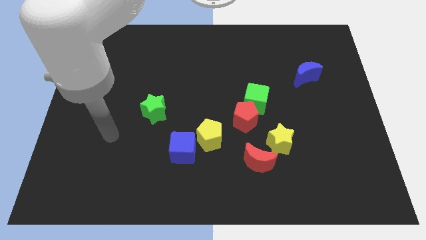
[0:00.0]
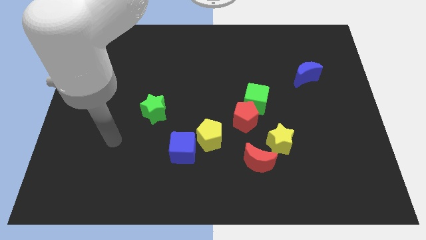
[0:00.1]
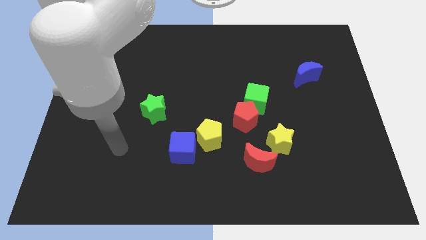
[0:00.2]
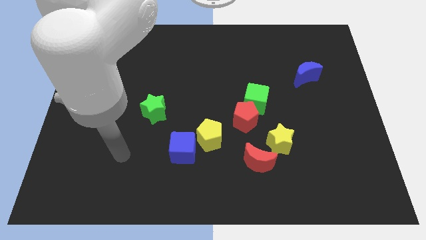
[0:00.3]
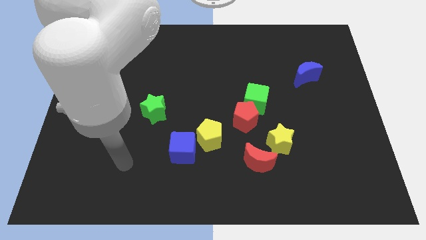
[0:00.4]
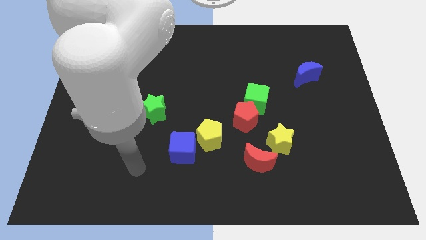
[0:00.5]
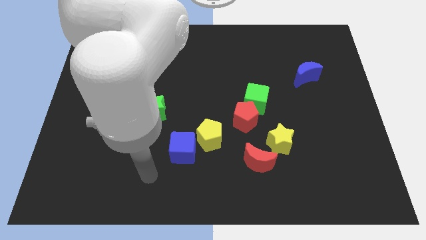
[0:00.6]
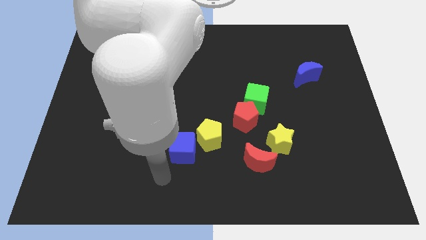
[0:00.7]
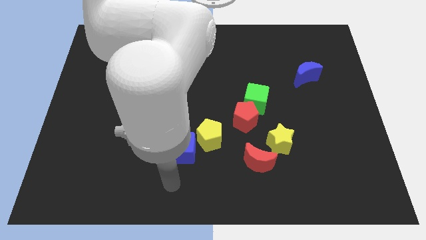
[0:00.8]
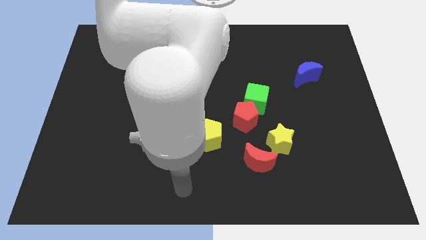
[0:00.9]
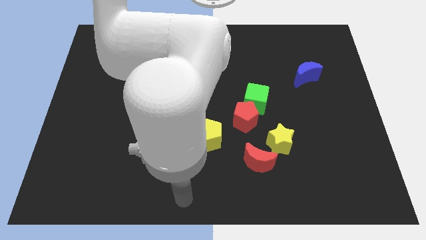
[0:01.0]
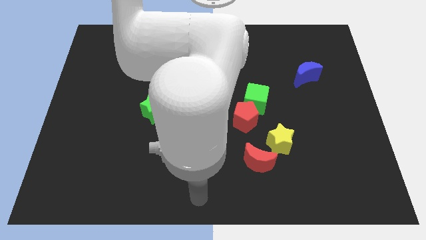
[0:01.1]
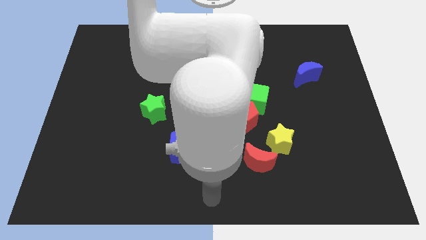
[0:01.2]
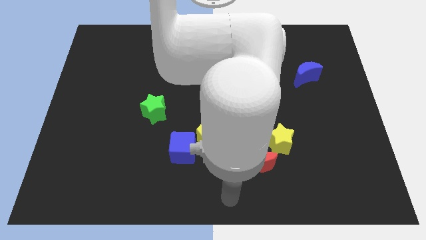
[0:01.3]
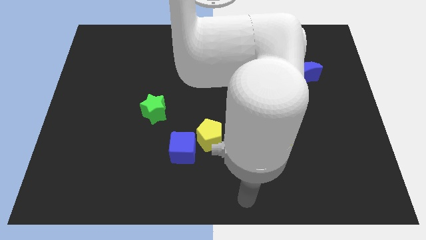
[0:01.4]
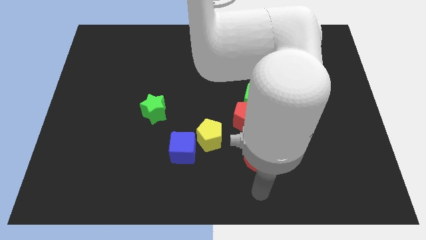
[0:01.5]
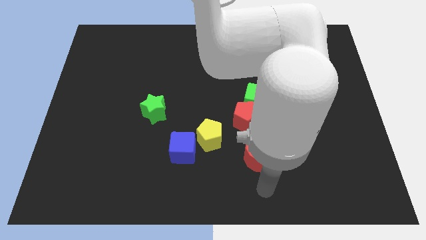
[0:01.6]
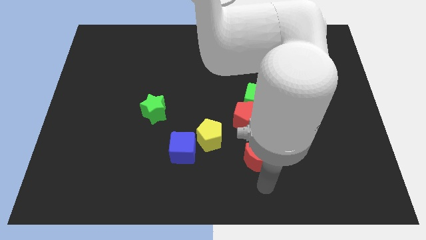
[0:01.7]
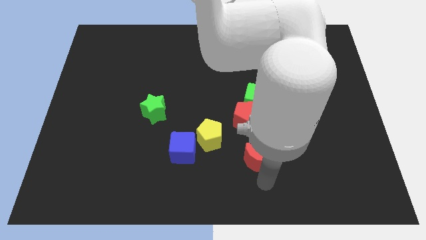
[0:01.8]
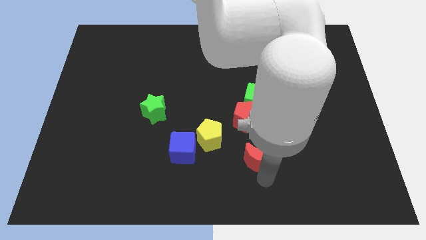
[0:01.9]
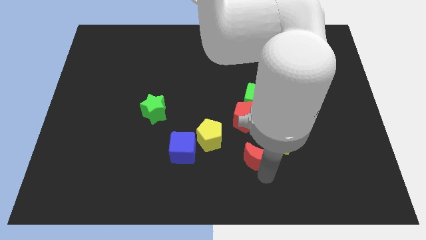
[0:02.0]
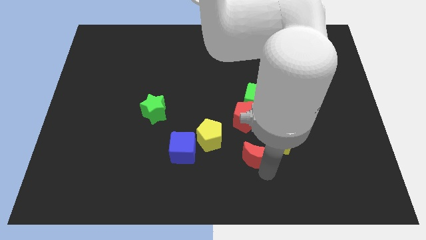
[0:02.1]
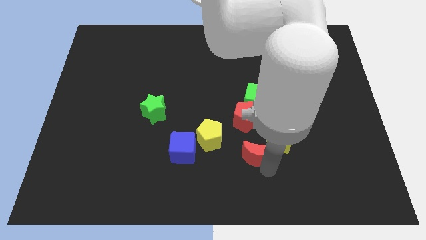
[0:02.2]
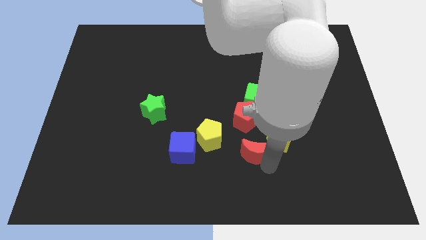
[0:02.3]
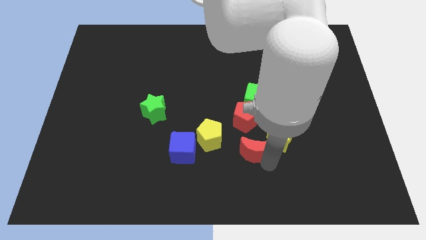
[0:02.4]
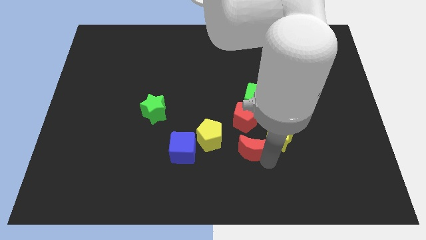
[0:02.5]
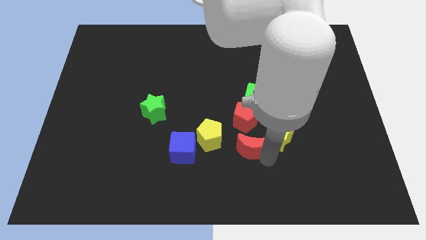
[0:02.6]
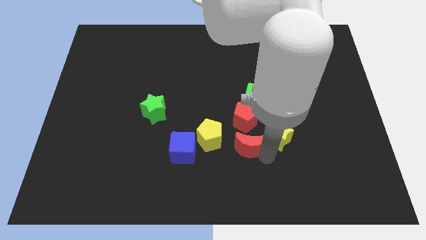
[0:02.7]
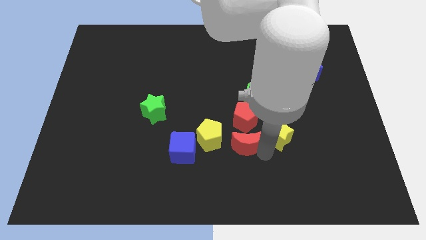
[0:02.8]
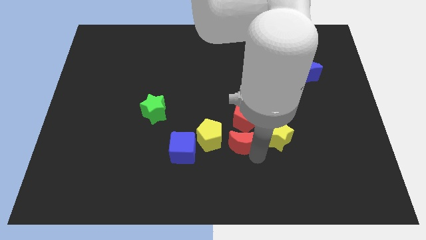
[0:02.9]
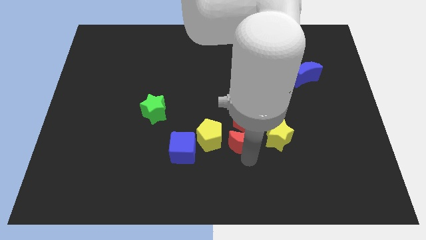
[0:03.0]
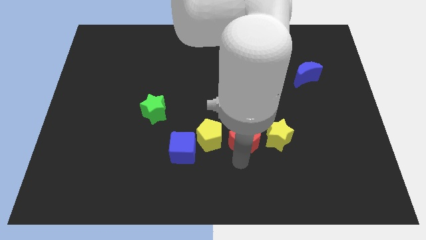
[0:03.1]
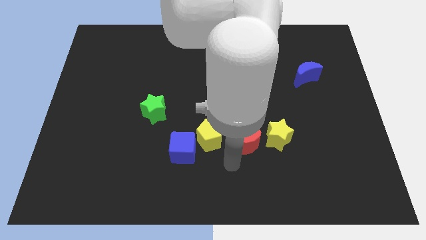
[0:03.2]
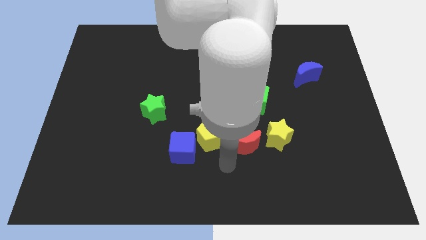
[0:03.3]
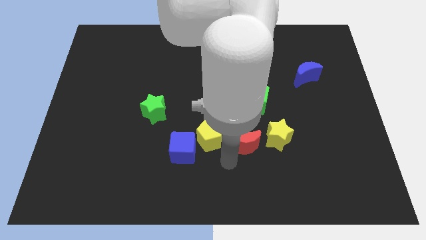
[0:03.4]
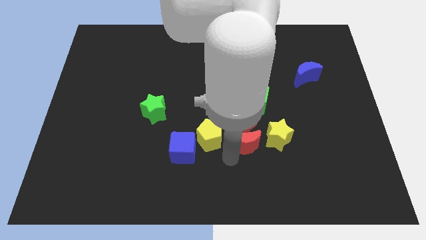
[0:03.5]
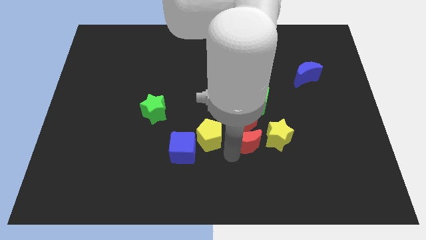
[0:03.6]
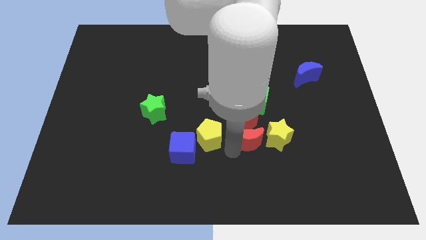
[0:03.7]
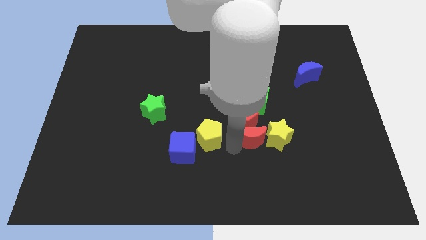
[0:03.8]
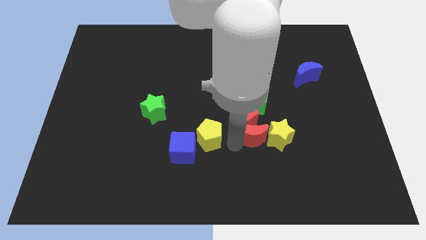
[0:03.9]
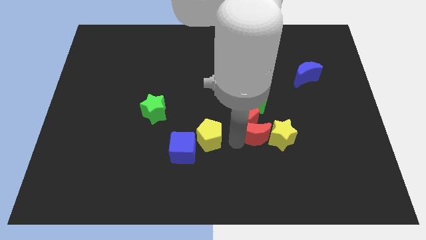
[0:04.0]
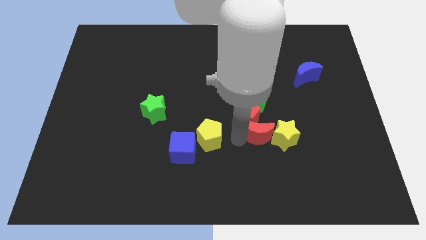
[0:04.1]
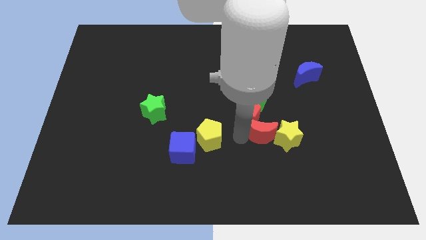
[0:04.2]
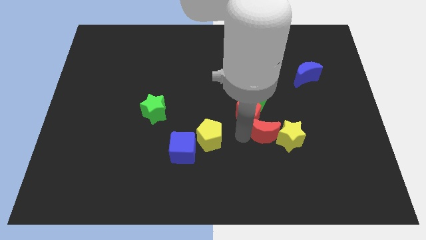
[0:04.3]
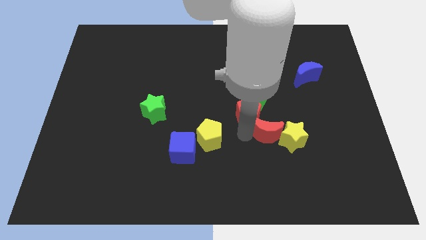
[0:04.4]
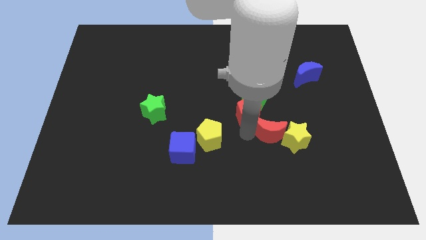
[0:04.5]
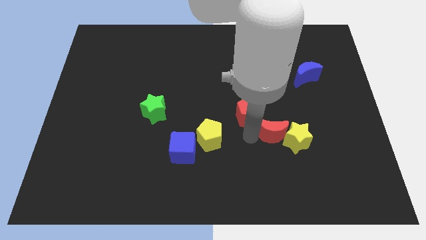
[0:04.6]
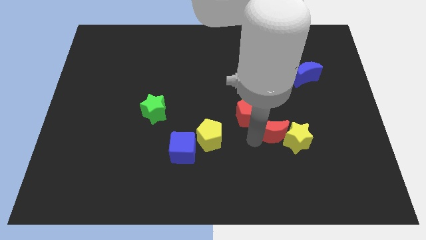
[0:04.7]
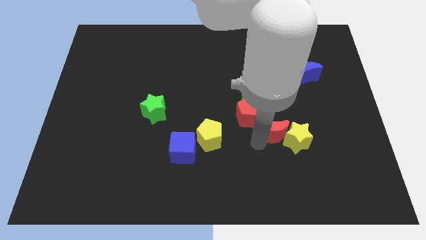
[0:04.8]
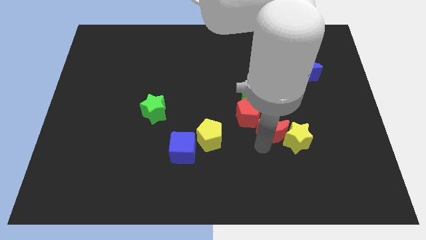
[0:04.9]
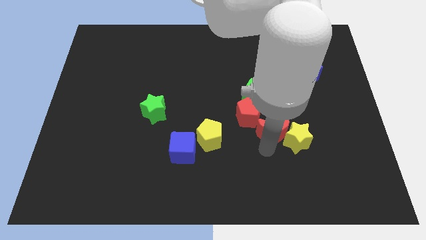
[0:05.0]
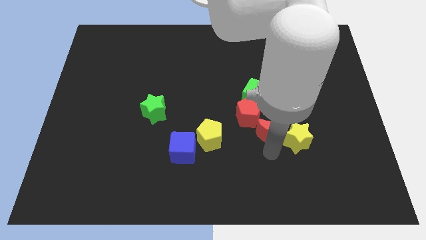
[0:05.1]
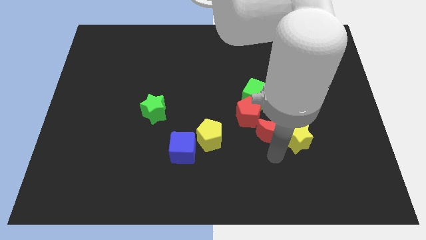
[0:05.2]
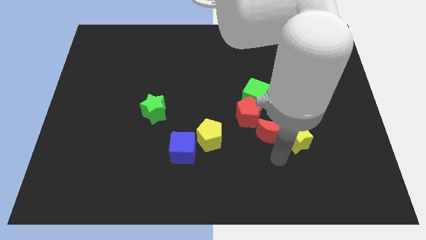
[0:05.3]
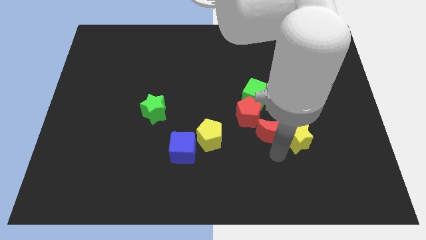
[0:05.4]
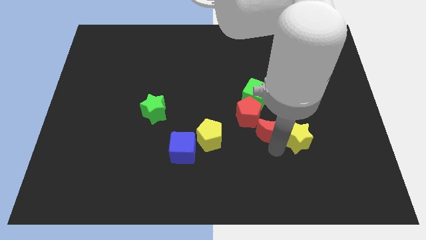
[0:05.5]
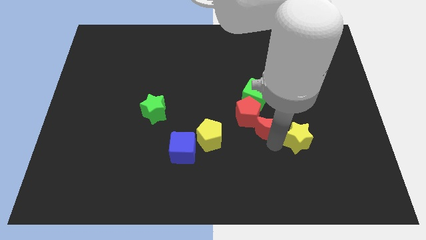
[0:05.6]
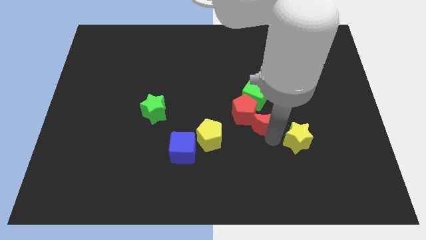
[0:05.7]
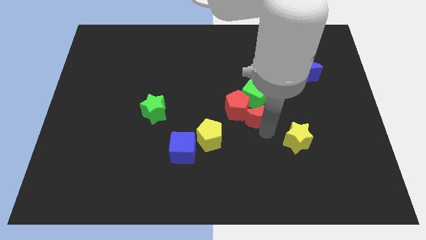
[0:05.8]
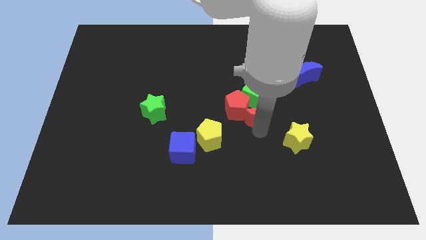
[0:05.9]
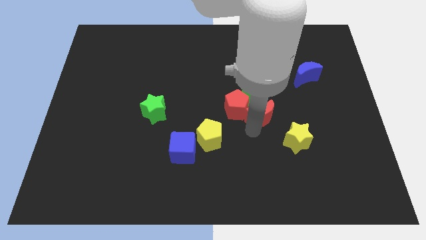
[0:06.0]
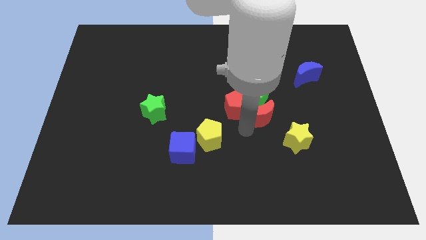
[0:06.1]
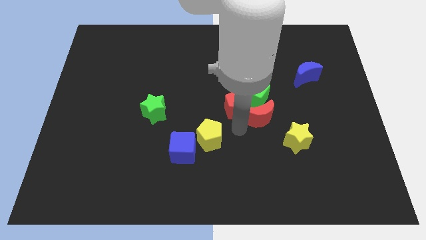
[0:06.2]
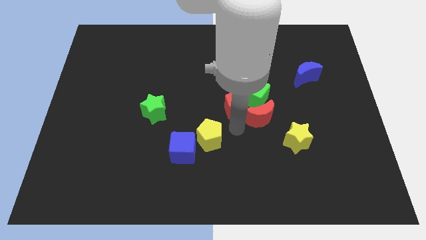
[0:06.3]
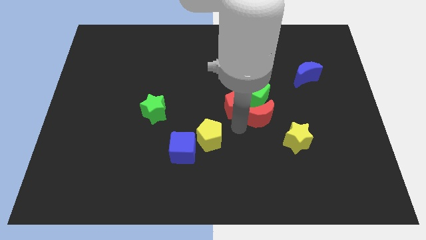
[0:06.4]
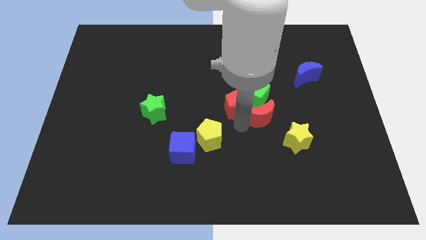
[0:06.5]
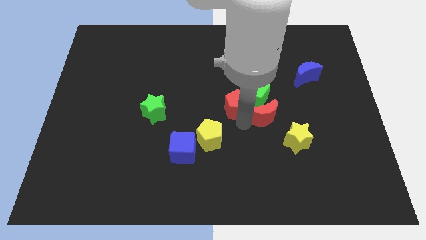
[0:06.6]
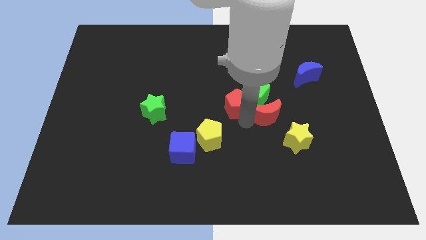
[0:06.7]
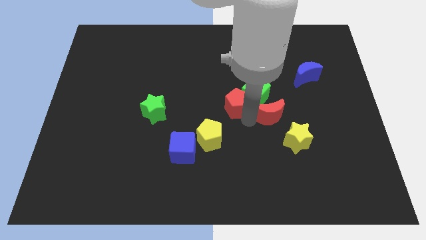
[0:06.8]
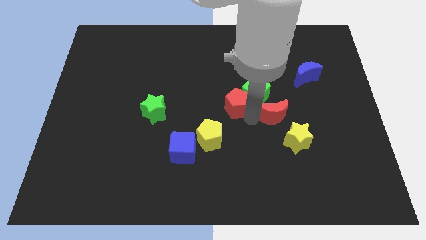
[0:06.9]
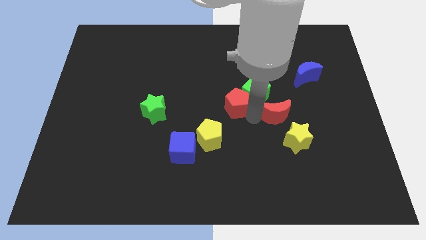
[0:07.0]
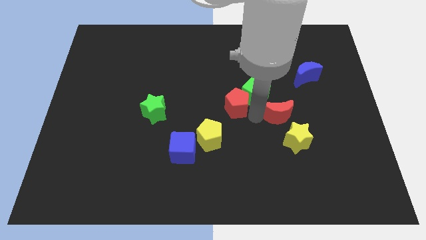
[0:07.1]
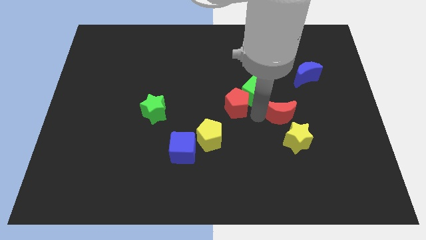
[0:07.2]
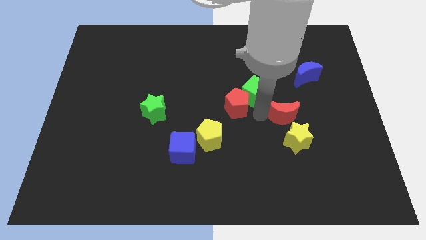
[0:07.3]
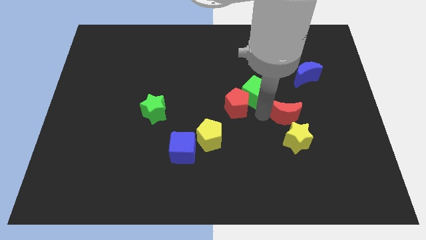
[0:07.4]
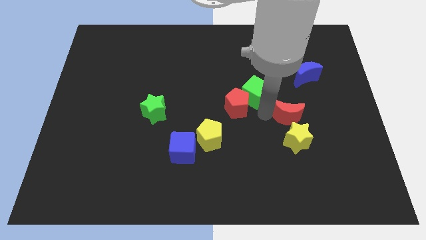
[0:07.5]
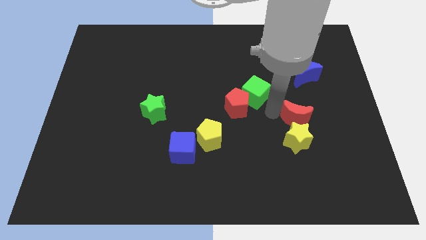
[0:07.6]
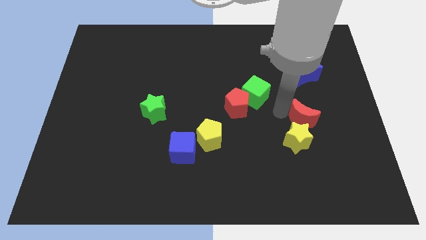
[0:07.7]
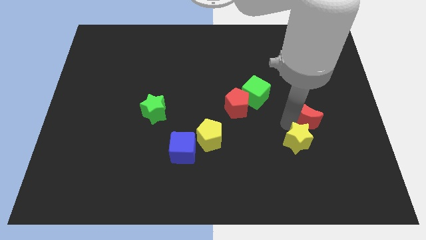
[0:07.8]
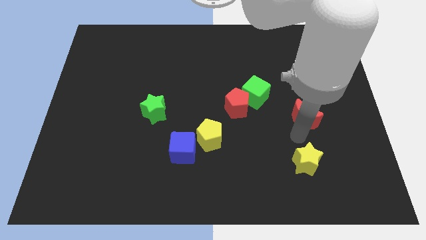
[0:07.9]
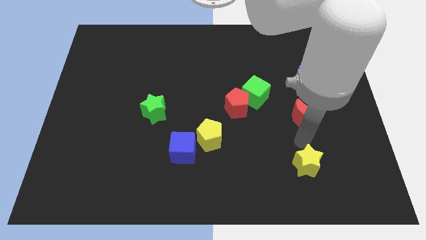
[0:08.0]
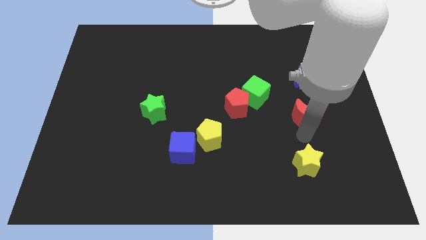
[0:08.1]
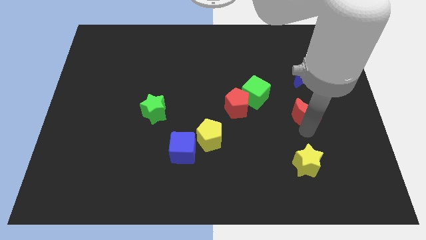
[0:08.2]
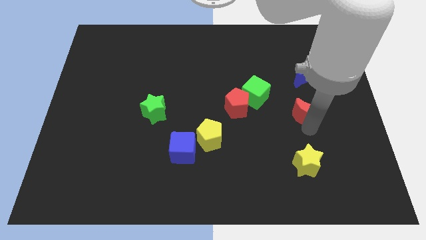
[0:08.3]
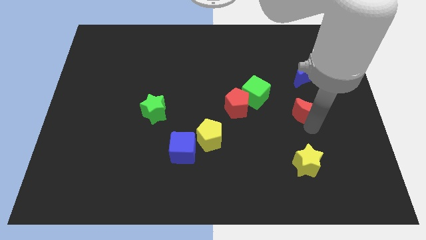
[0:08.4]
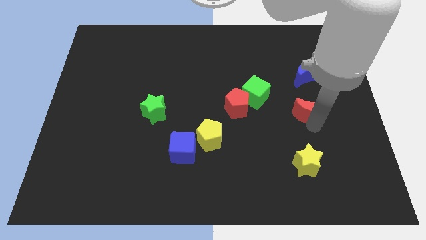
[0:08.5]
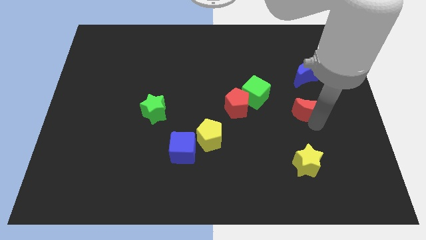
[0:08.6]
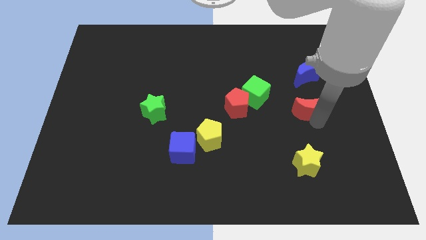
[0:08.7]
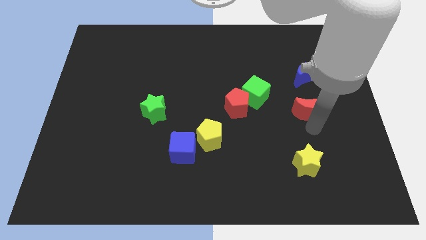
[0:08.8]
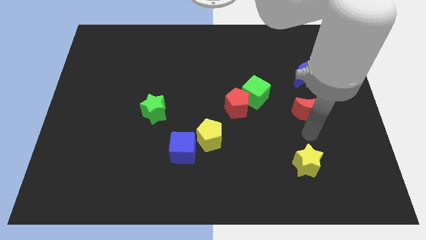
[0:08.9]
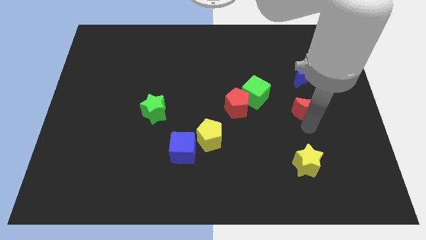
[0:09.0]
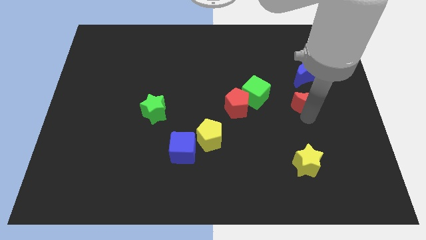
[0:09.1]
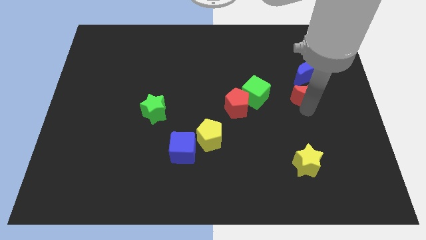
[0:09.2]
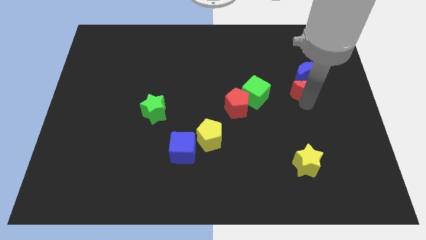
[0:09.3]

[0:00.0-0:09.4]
move the red moon close to the blue moon
